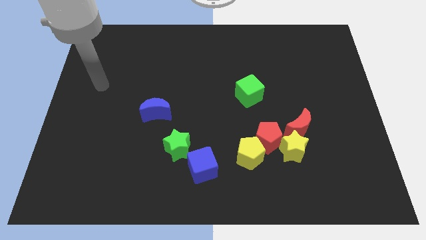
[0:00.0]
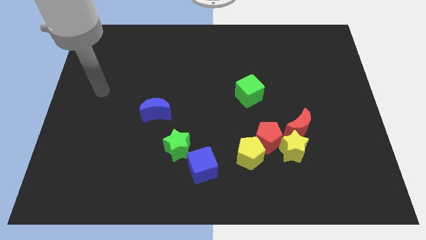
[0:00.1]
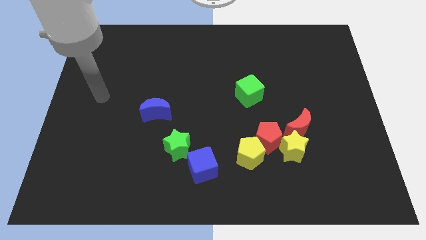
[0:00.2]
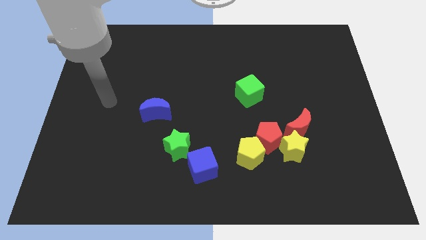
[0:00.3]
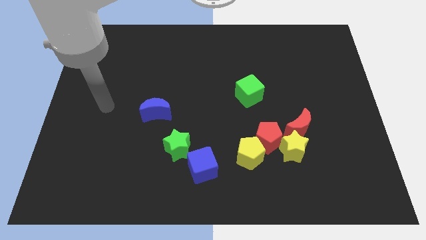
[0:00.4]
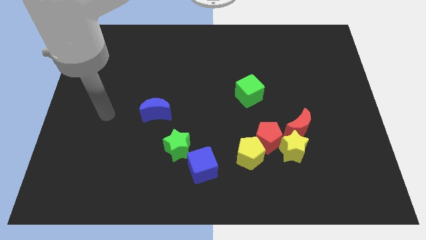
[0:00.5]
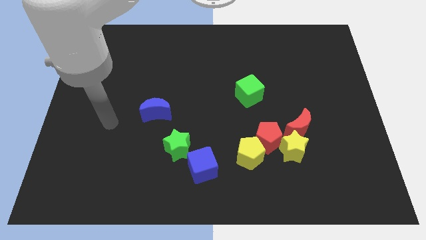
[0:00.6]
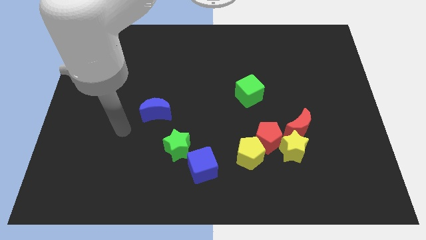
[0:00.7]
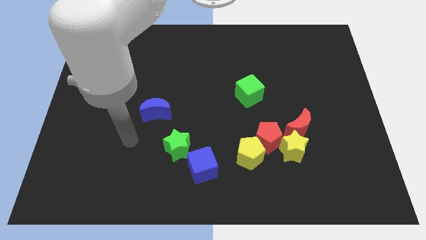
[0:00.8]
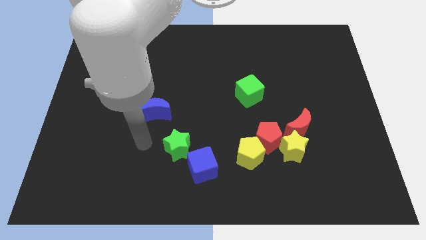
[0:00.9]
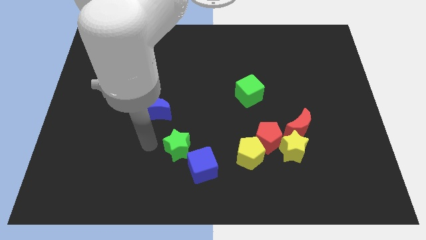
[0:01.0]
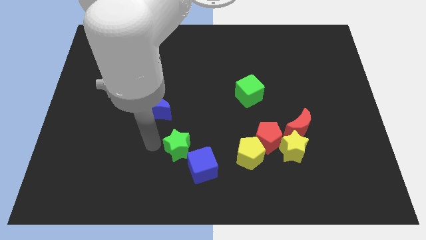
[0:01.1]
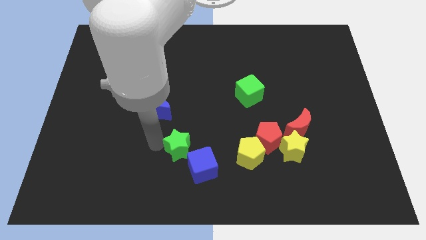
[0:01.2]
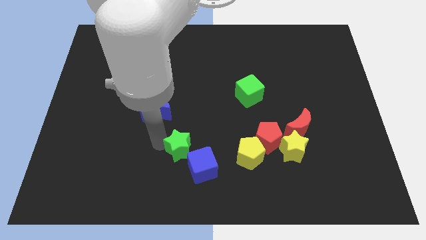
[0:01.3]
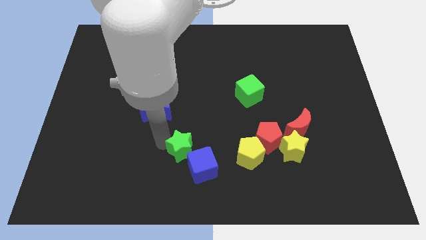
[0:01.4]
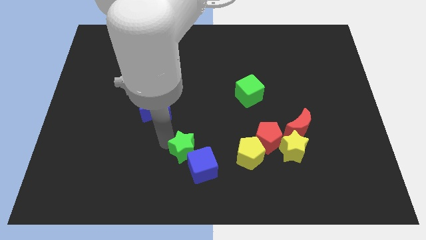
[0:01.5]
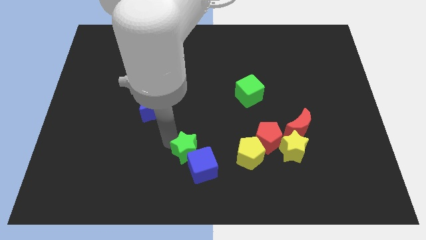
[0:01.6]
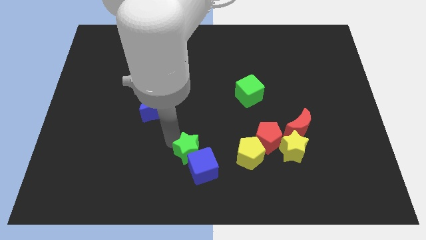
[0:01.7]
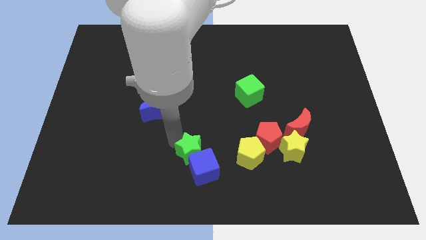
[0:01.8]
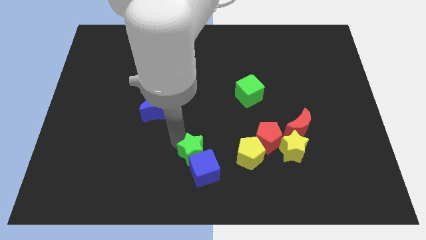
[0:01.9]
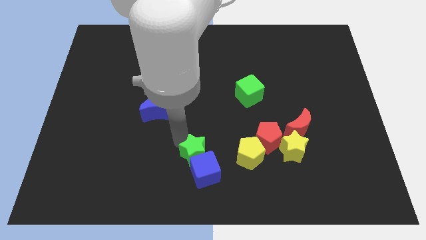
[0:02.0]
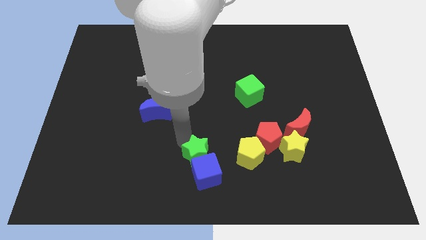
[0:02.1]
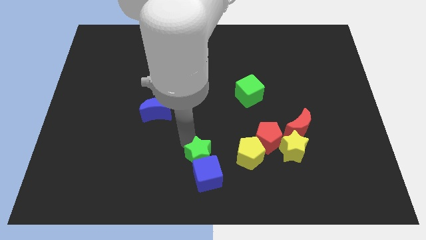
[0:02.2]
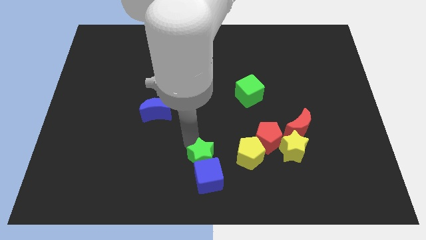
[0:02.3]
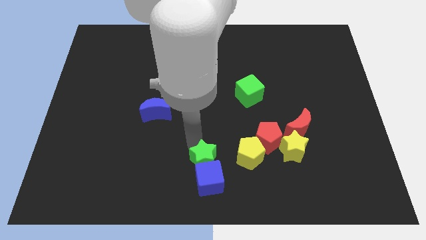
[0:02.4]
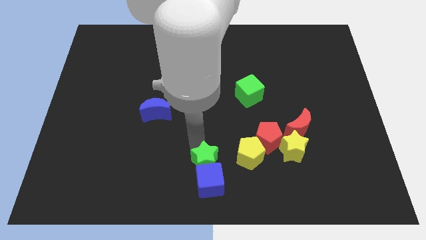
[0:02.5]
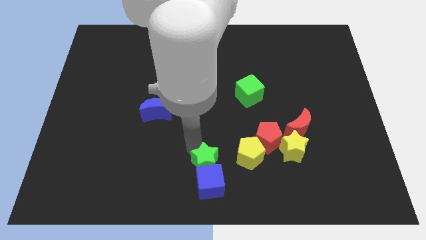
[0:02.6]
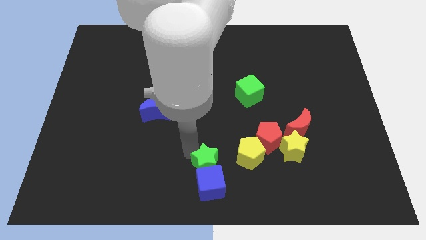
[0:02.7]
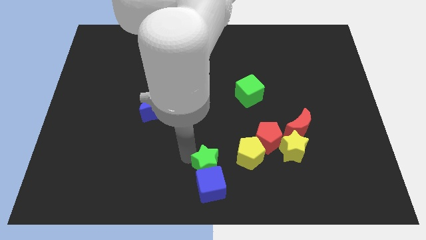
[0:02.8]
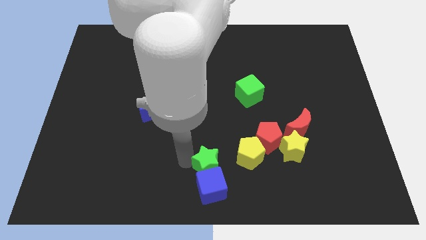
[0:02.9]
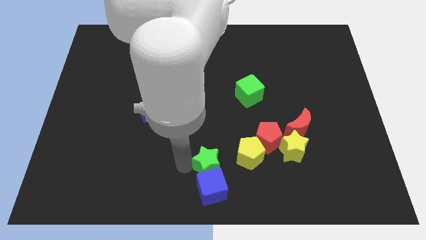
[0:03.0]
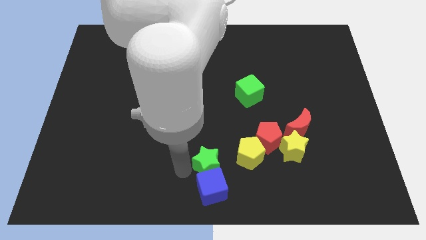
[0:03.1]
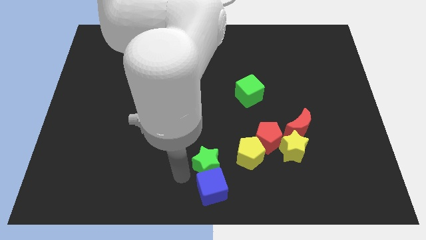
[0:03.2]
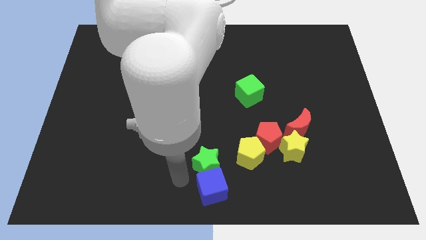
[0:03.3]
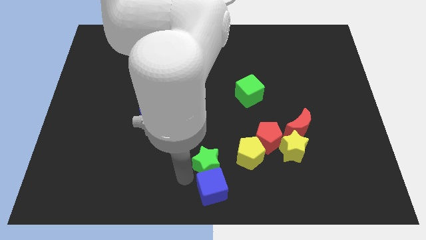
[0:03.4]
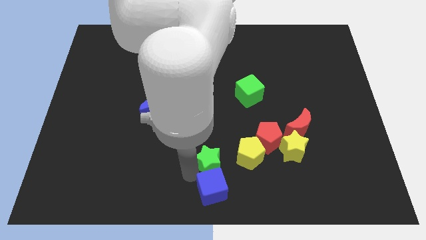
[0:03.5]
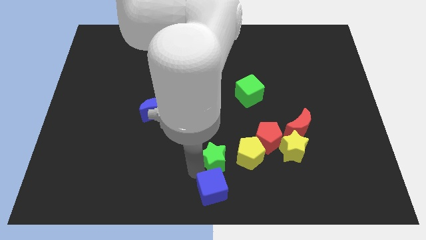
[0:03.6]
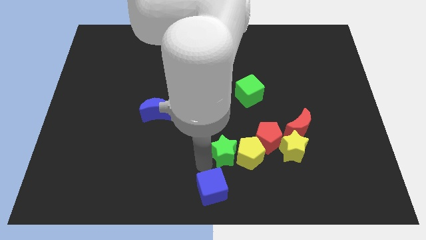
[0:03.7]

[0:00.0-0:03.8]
put the green star towards the yellow pentagon

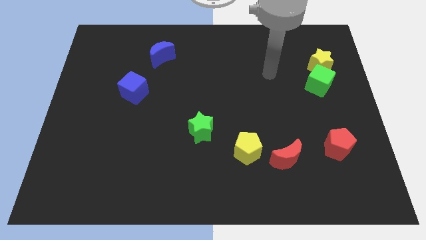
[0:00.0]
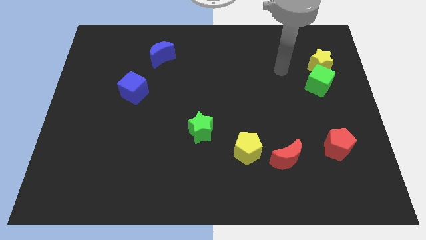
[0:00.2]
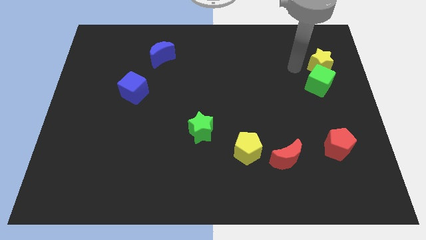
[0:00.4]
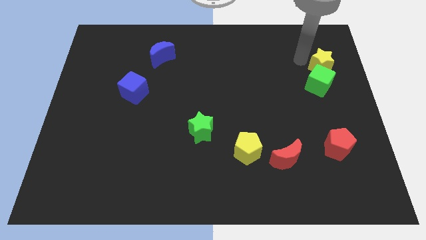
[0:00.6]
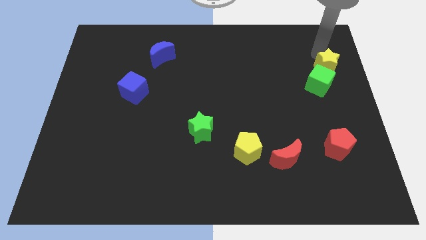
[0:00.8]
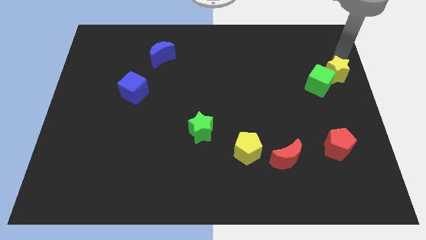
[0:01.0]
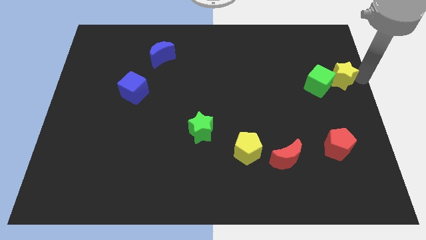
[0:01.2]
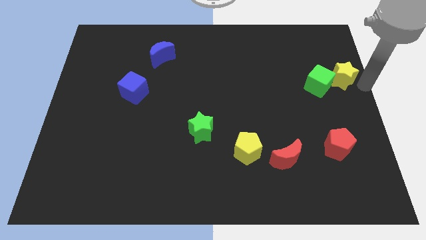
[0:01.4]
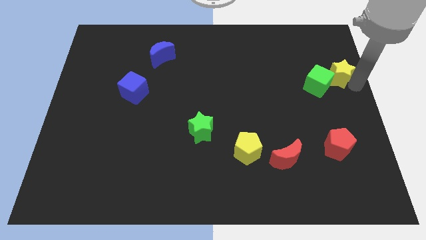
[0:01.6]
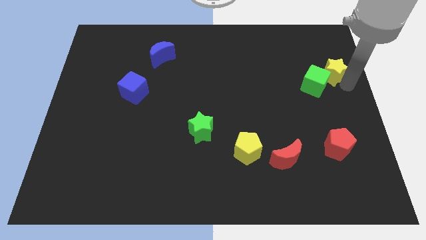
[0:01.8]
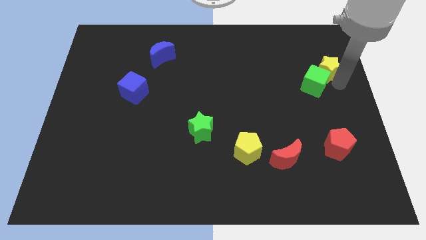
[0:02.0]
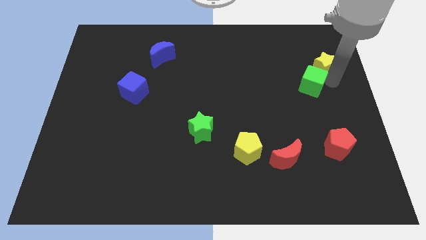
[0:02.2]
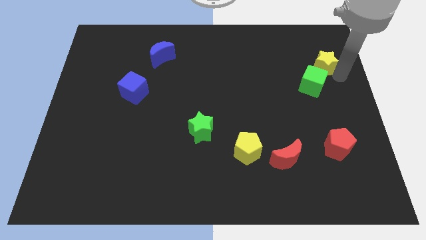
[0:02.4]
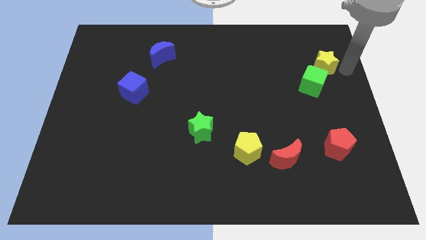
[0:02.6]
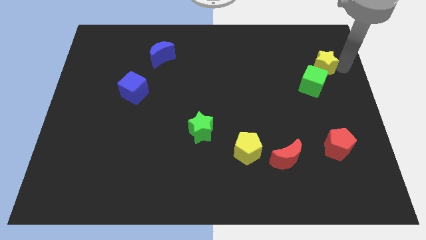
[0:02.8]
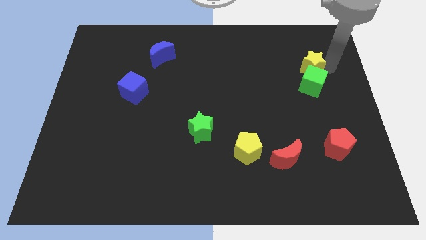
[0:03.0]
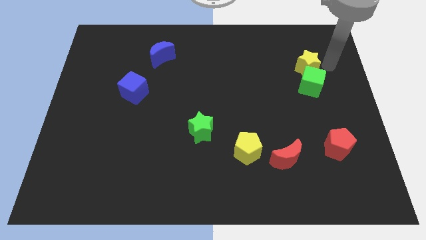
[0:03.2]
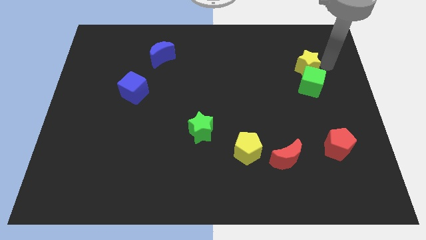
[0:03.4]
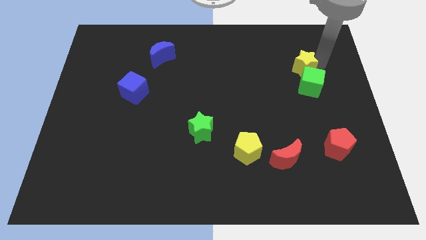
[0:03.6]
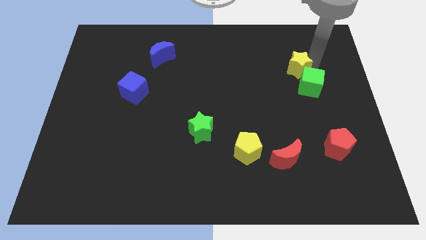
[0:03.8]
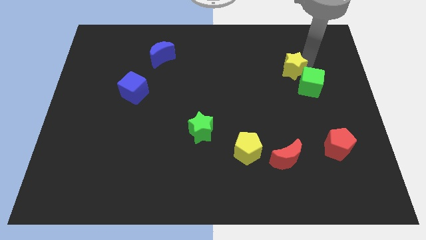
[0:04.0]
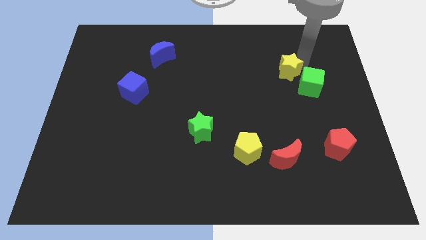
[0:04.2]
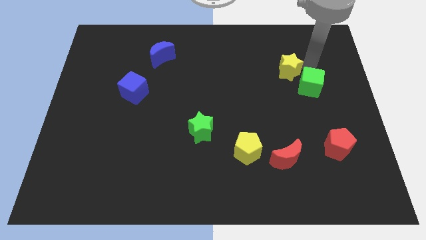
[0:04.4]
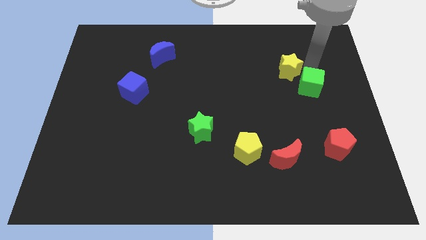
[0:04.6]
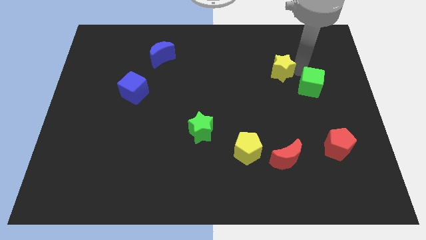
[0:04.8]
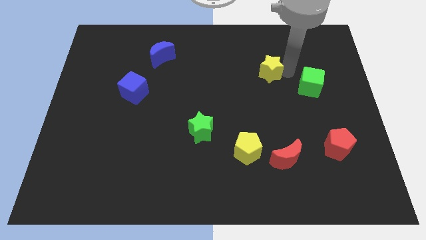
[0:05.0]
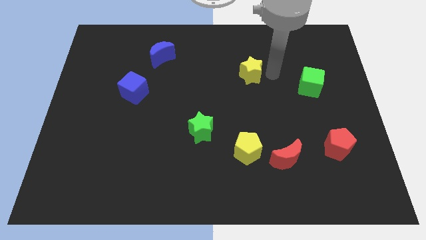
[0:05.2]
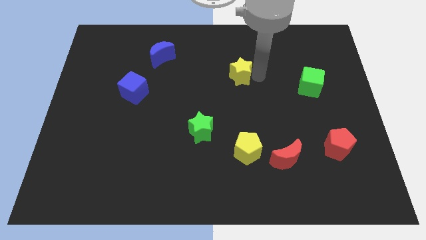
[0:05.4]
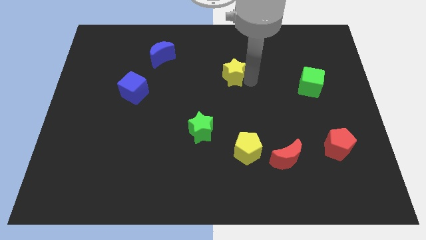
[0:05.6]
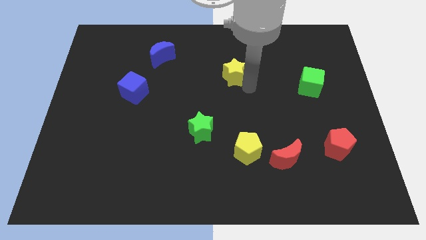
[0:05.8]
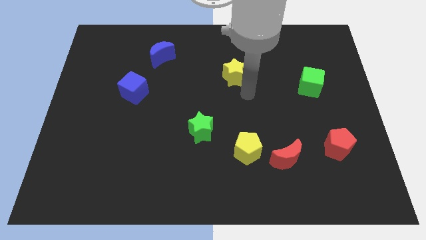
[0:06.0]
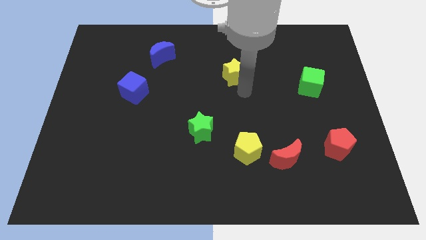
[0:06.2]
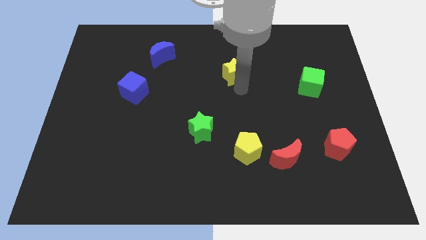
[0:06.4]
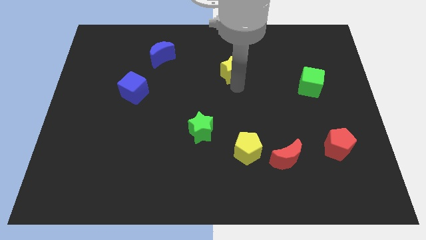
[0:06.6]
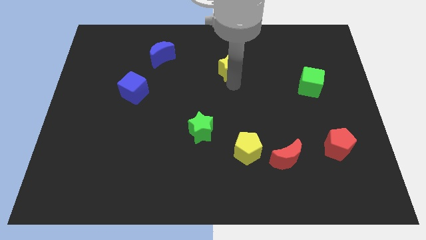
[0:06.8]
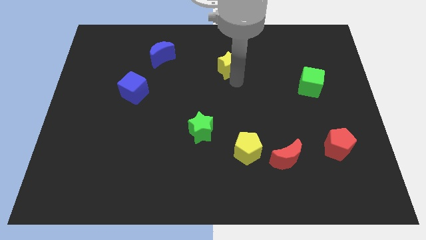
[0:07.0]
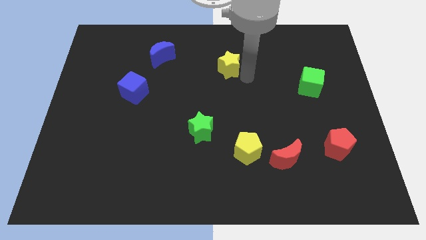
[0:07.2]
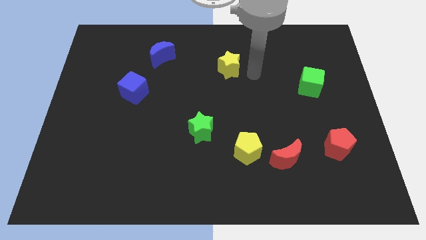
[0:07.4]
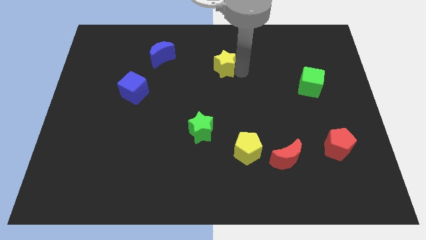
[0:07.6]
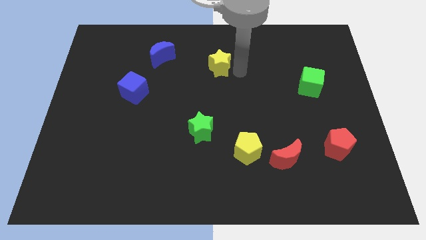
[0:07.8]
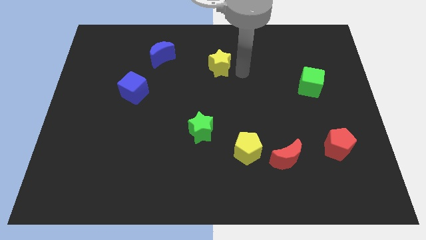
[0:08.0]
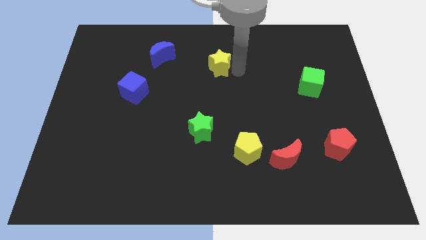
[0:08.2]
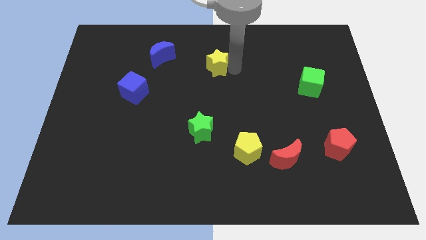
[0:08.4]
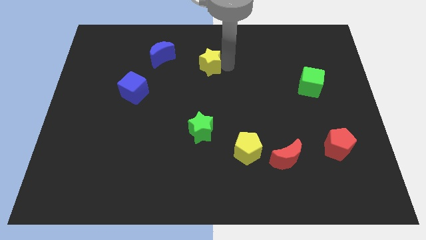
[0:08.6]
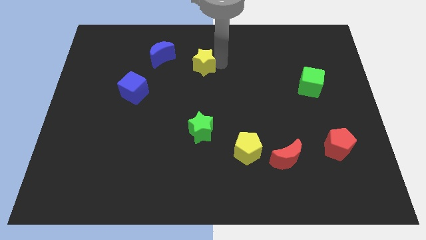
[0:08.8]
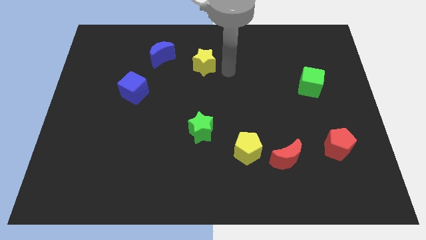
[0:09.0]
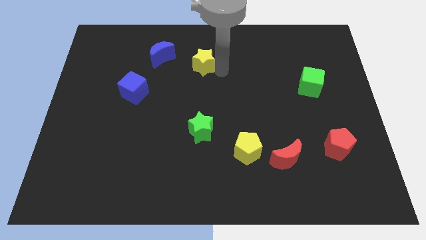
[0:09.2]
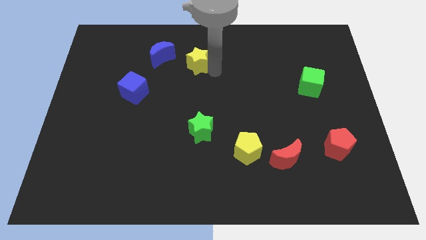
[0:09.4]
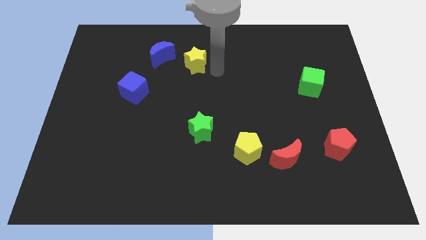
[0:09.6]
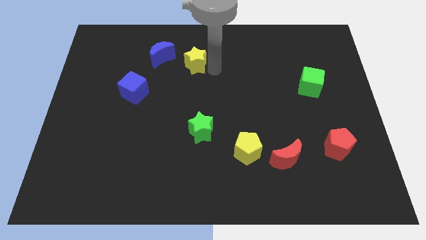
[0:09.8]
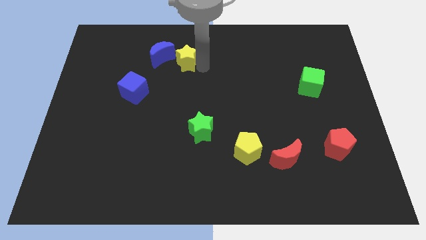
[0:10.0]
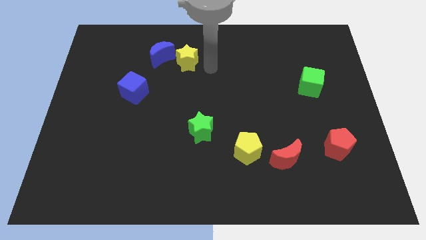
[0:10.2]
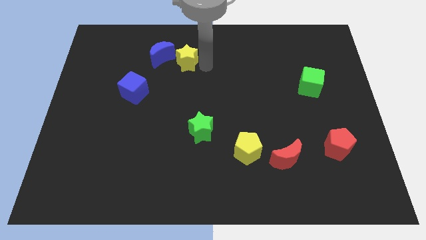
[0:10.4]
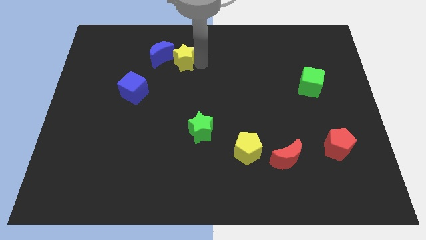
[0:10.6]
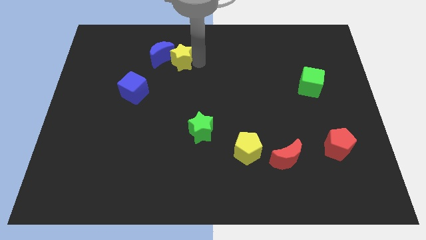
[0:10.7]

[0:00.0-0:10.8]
move the yellow star towards the blue moon
